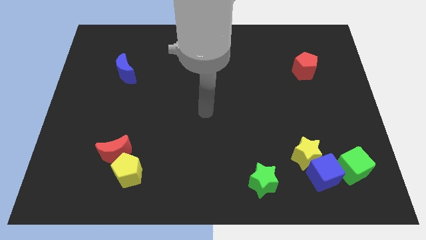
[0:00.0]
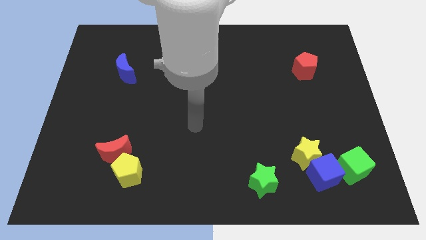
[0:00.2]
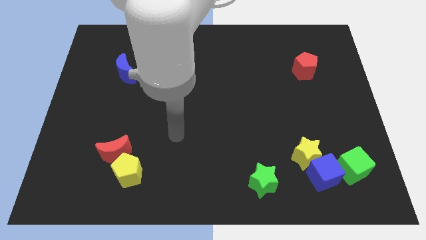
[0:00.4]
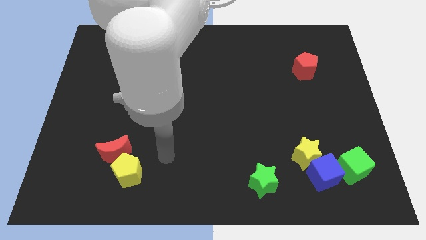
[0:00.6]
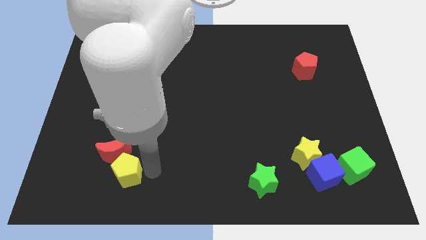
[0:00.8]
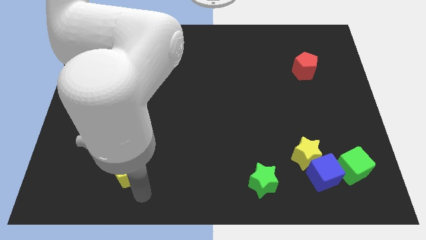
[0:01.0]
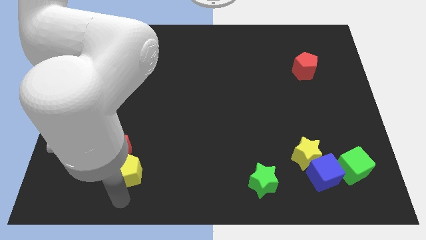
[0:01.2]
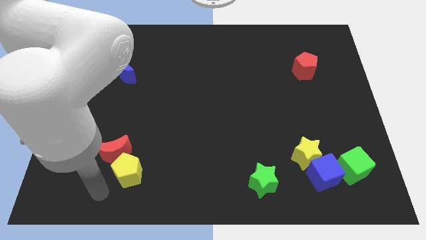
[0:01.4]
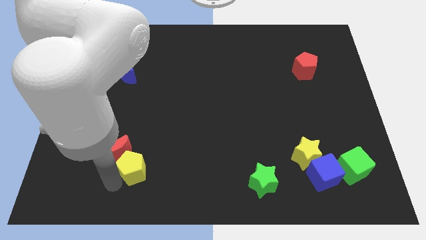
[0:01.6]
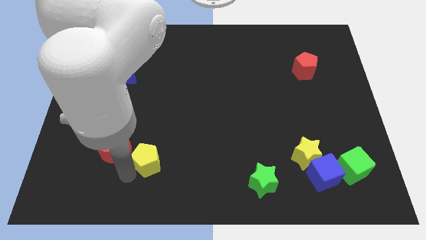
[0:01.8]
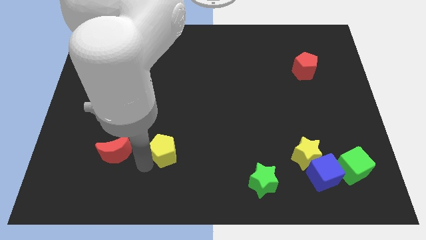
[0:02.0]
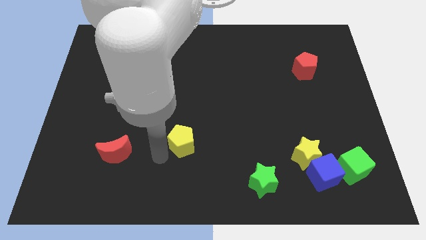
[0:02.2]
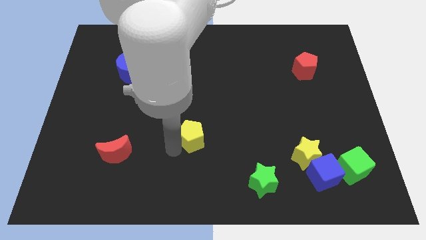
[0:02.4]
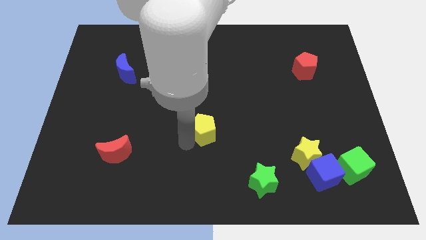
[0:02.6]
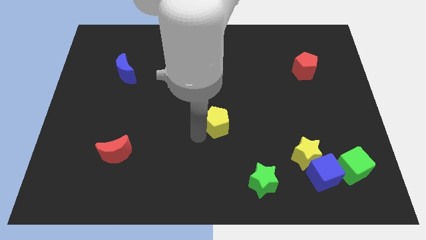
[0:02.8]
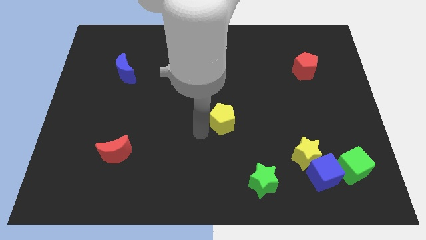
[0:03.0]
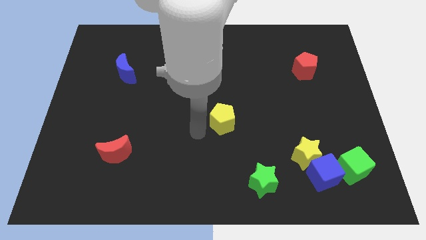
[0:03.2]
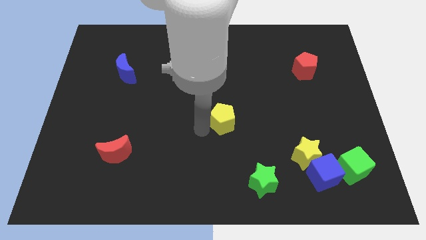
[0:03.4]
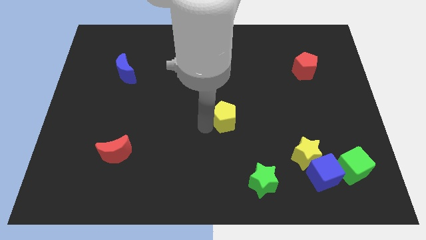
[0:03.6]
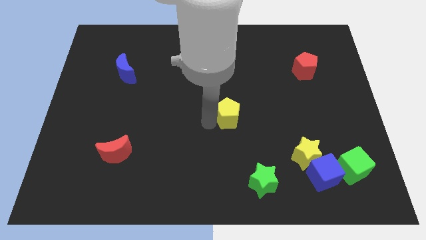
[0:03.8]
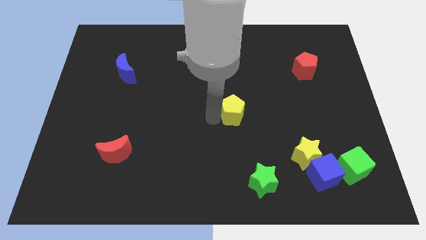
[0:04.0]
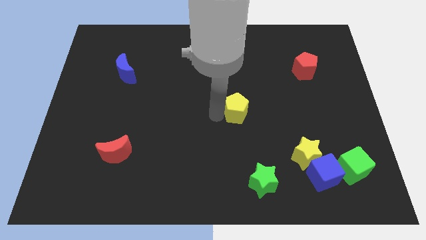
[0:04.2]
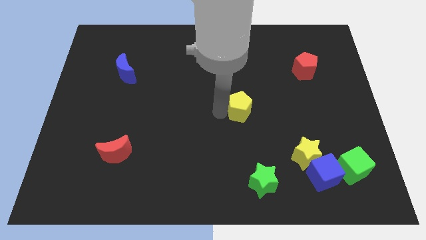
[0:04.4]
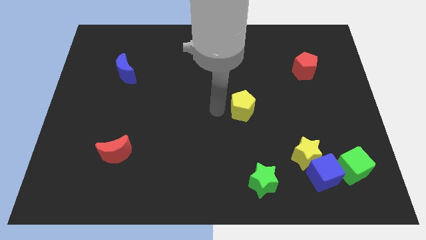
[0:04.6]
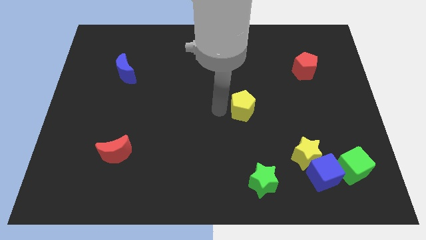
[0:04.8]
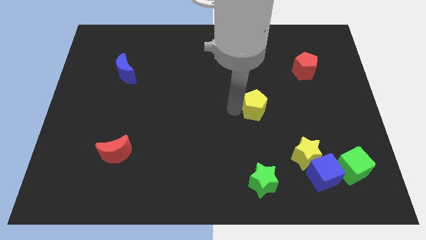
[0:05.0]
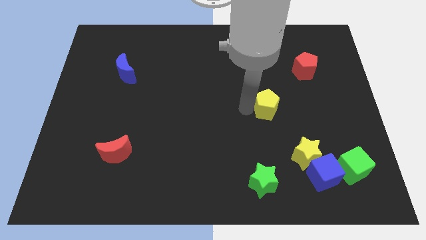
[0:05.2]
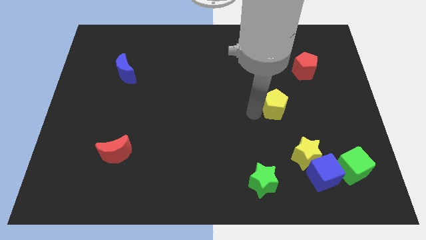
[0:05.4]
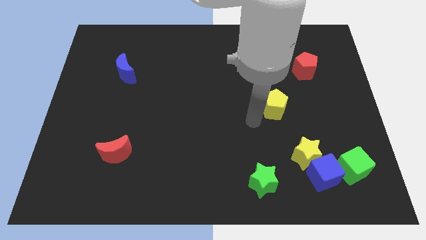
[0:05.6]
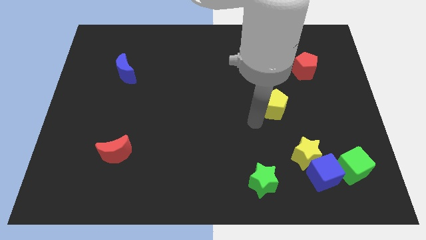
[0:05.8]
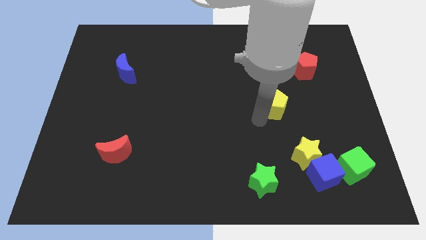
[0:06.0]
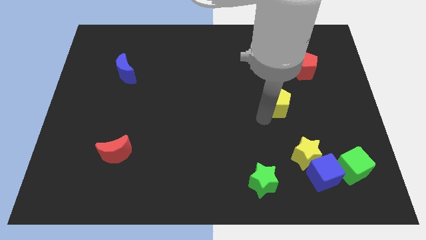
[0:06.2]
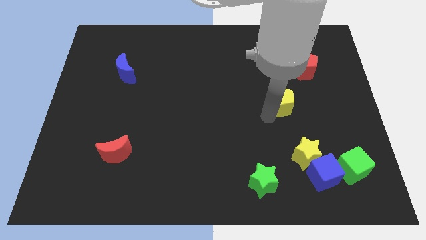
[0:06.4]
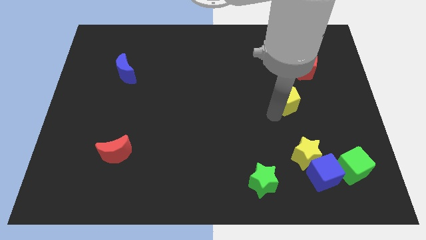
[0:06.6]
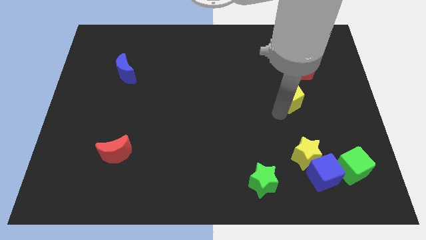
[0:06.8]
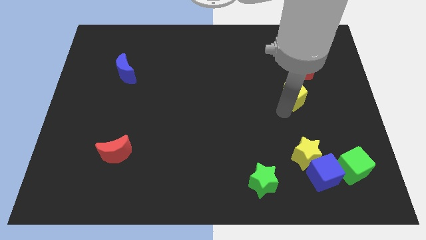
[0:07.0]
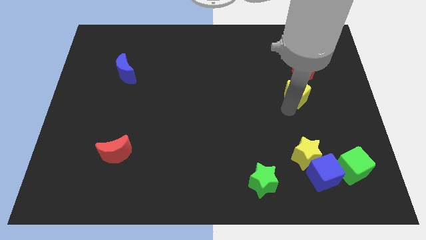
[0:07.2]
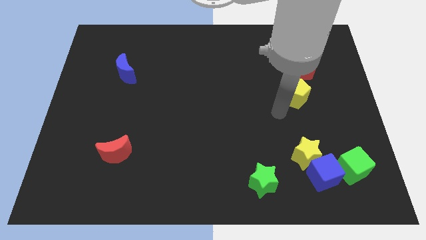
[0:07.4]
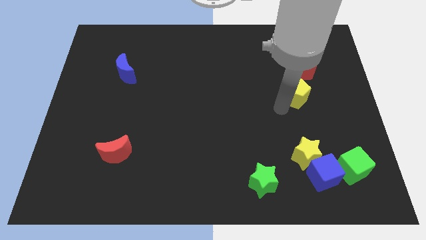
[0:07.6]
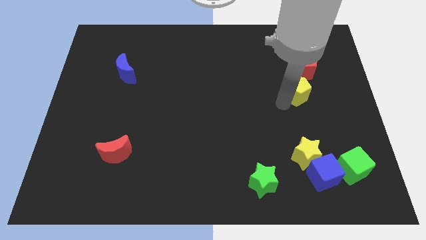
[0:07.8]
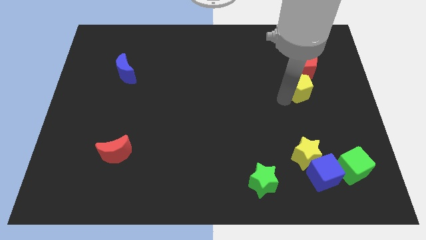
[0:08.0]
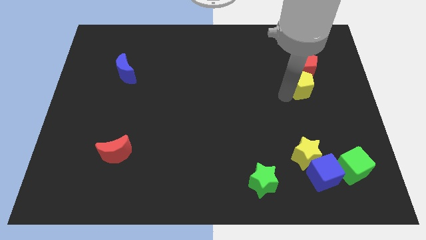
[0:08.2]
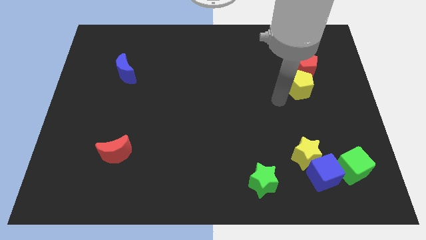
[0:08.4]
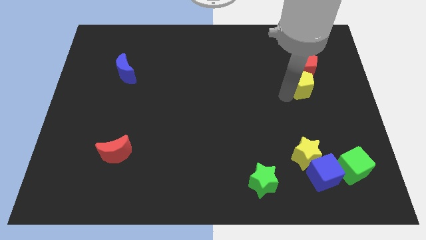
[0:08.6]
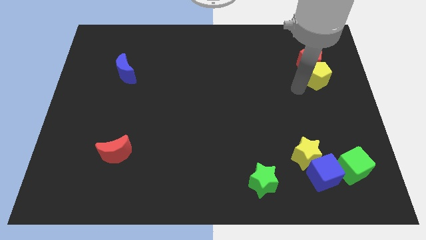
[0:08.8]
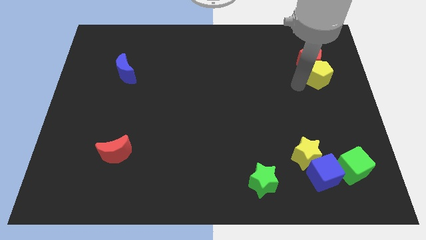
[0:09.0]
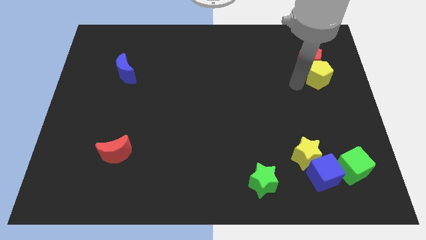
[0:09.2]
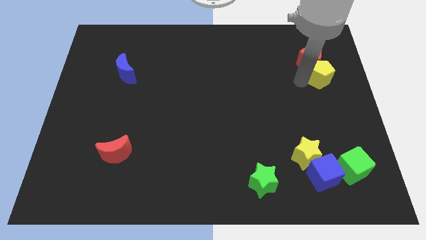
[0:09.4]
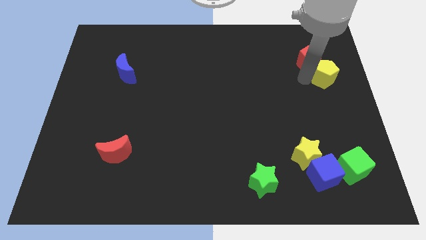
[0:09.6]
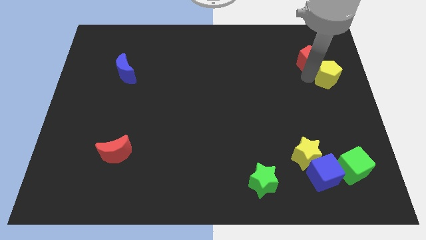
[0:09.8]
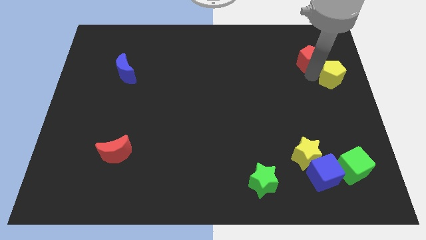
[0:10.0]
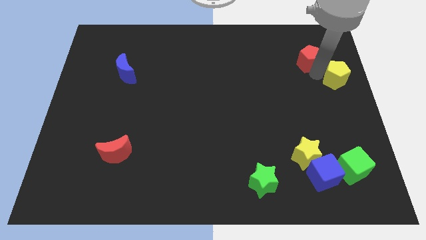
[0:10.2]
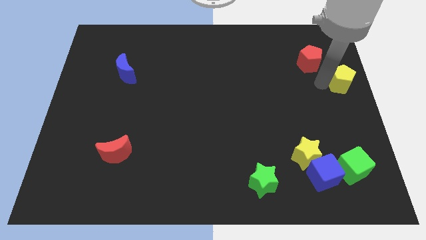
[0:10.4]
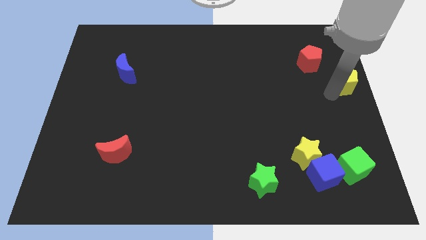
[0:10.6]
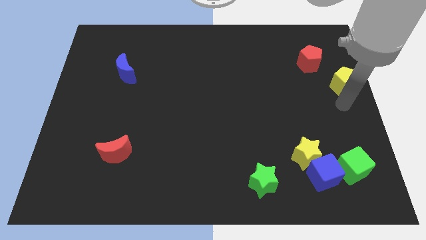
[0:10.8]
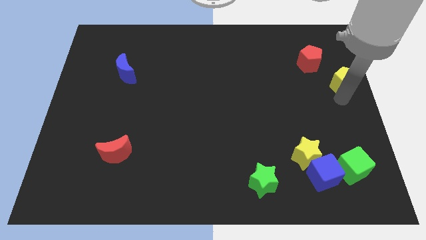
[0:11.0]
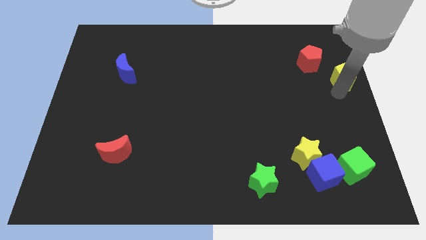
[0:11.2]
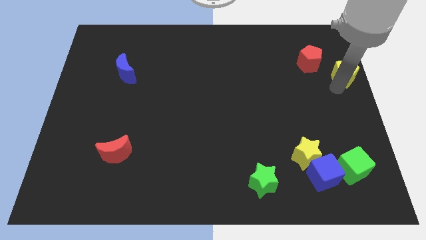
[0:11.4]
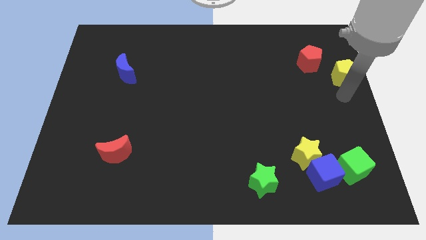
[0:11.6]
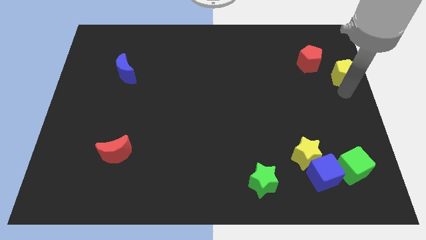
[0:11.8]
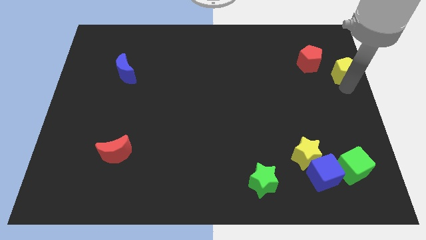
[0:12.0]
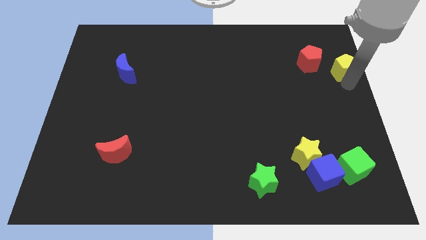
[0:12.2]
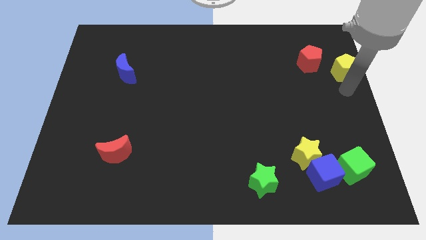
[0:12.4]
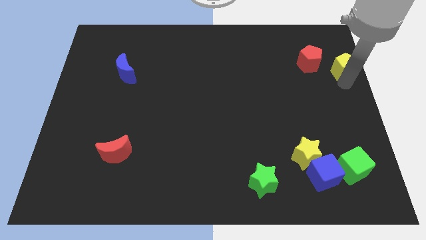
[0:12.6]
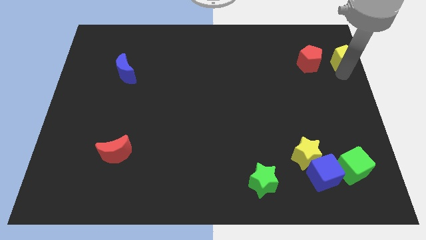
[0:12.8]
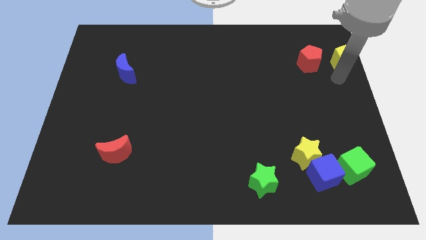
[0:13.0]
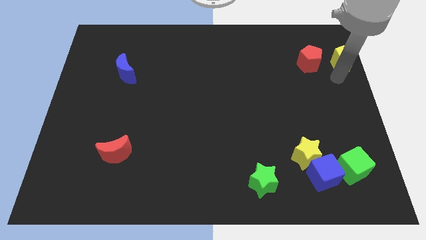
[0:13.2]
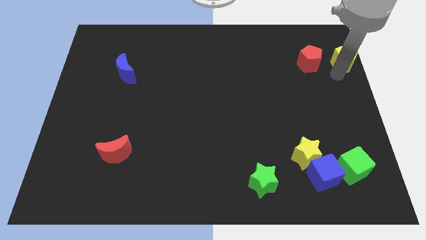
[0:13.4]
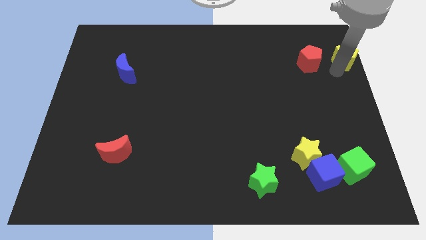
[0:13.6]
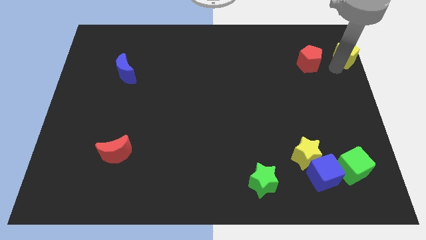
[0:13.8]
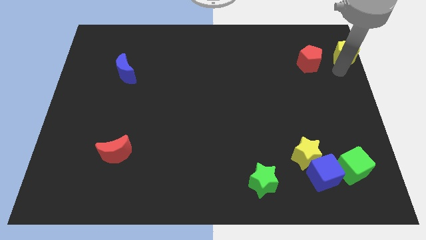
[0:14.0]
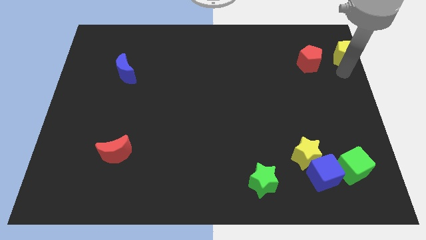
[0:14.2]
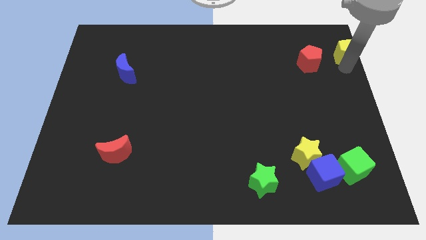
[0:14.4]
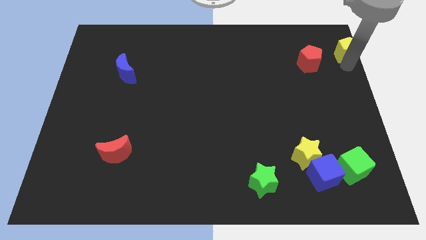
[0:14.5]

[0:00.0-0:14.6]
move the yellow pentagon to the top right of the board

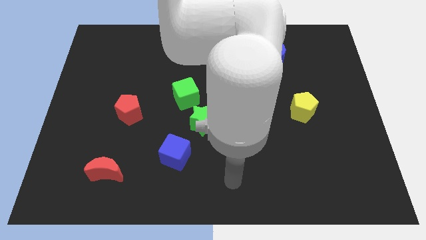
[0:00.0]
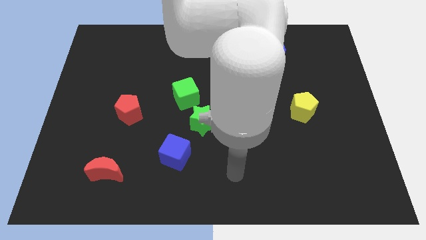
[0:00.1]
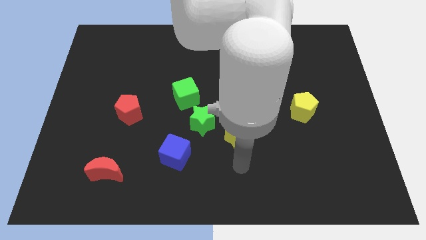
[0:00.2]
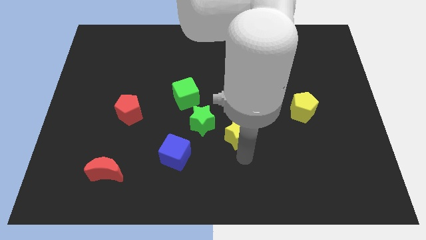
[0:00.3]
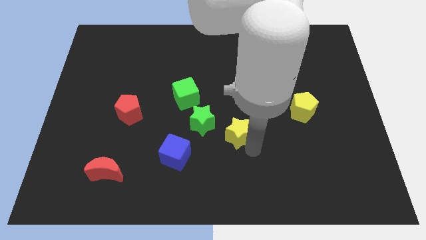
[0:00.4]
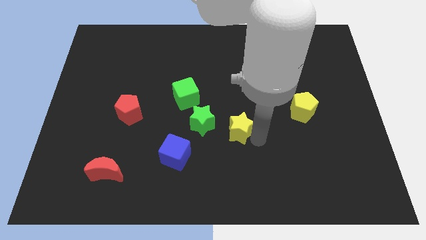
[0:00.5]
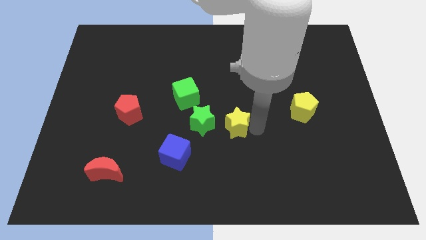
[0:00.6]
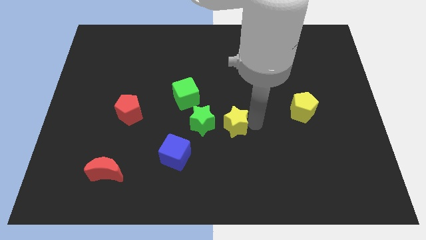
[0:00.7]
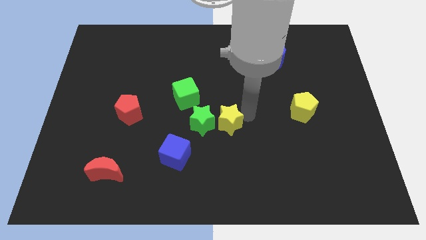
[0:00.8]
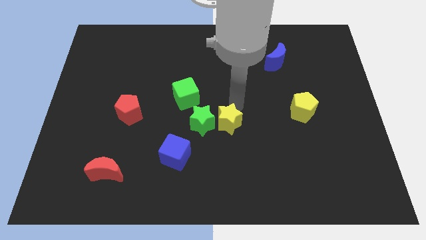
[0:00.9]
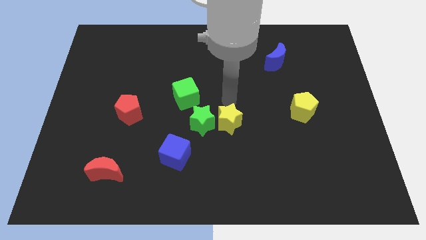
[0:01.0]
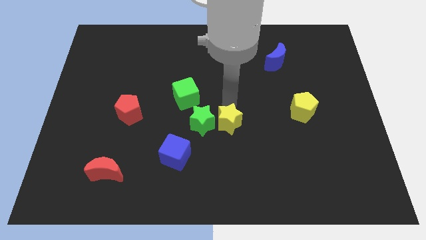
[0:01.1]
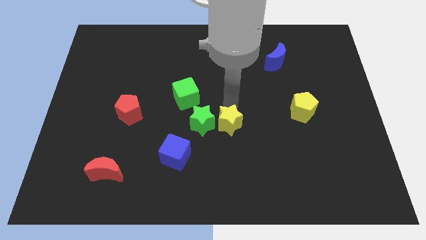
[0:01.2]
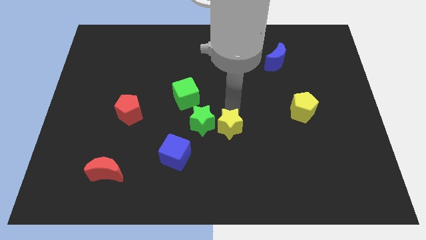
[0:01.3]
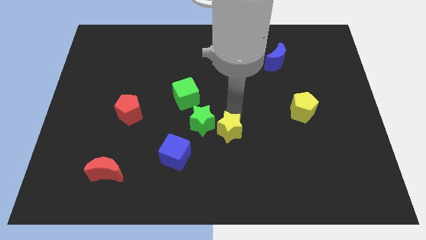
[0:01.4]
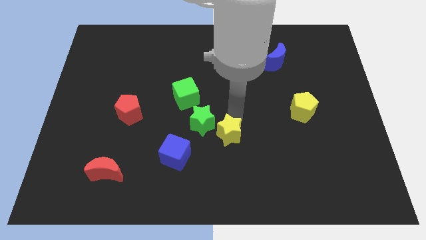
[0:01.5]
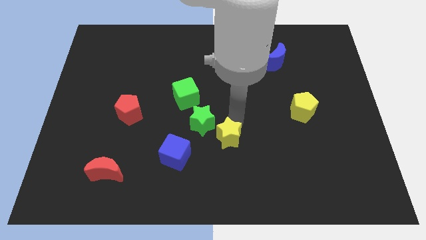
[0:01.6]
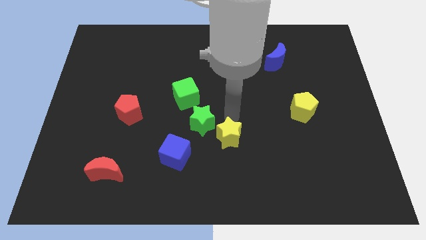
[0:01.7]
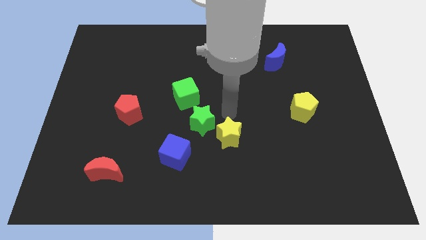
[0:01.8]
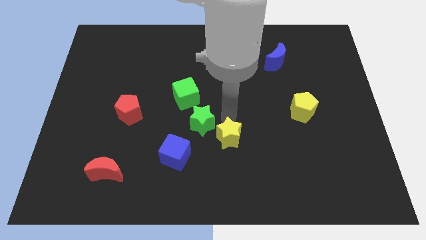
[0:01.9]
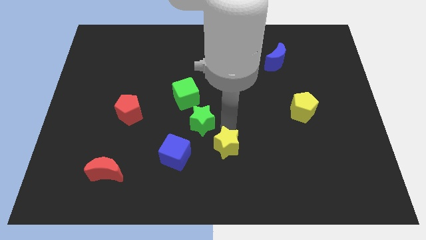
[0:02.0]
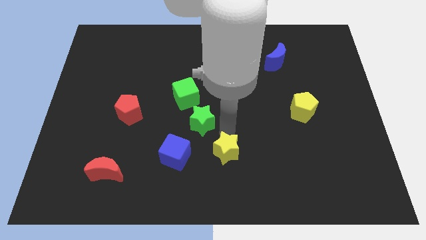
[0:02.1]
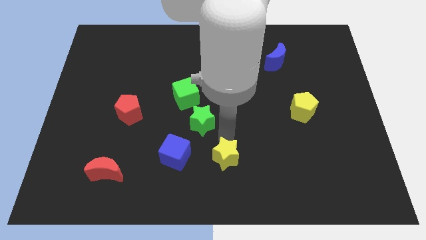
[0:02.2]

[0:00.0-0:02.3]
move the yellow star to the bottom
